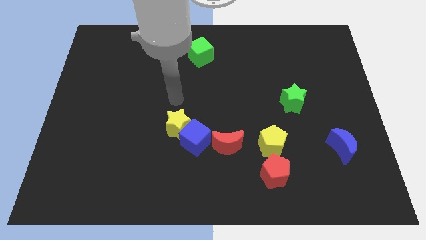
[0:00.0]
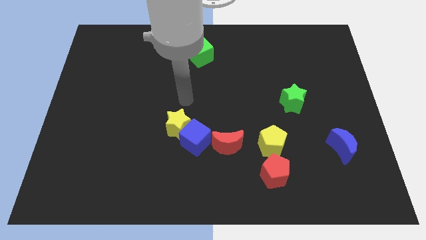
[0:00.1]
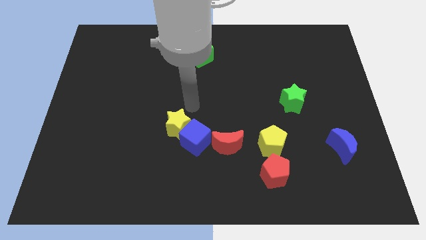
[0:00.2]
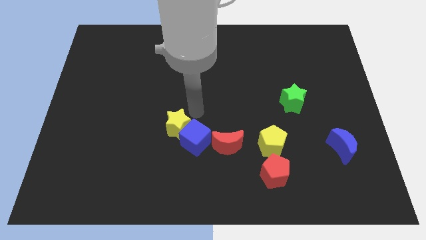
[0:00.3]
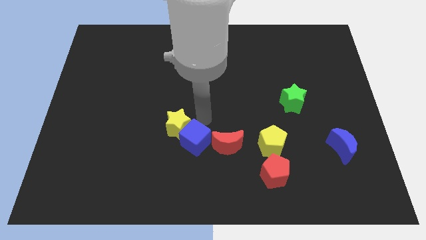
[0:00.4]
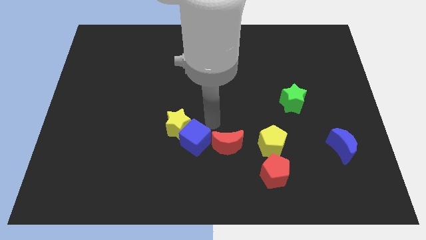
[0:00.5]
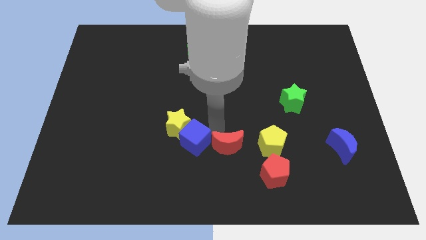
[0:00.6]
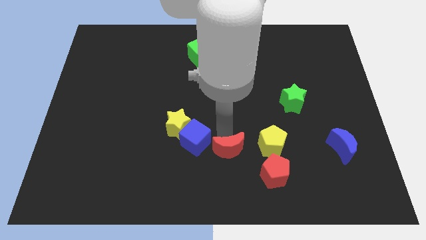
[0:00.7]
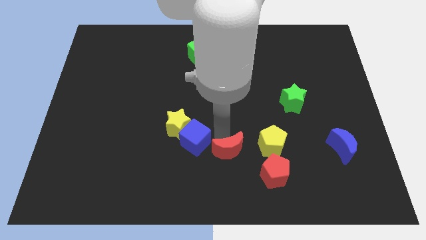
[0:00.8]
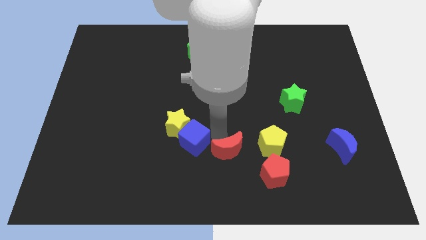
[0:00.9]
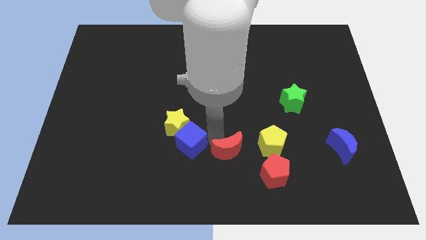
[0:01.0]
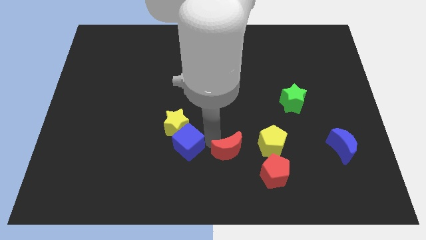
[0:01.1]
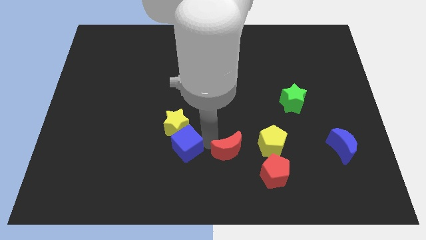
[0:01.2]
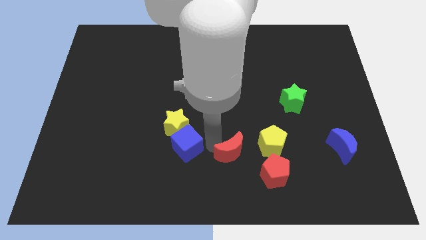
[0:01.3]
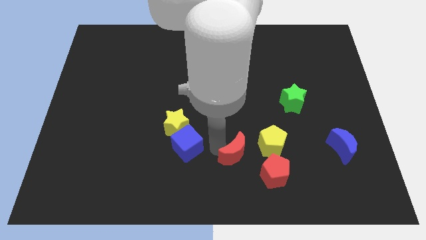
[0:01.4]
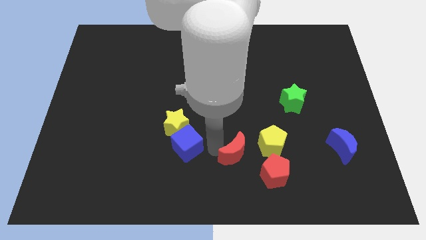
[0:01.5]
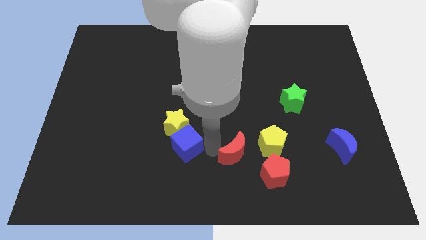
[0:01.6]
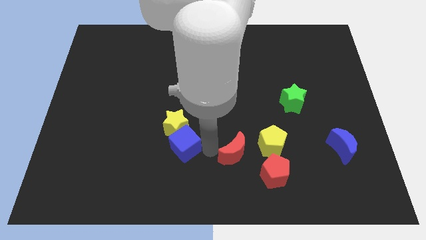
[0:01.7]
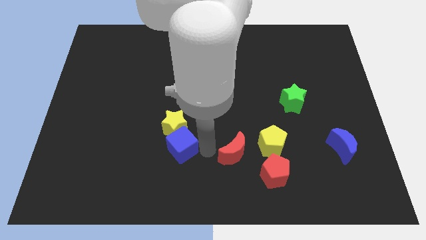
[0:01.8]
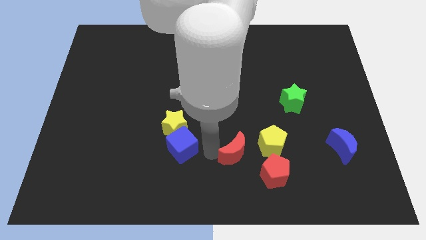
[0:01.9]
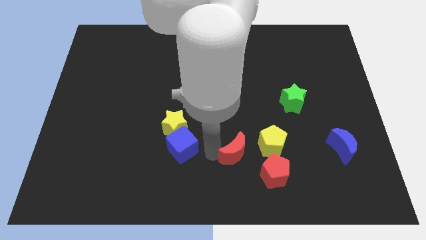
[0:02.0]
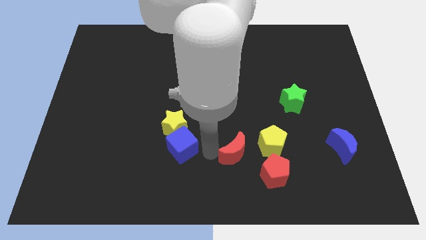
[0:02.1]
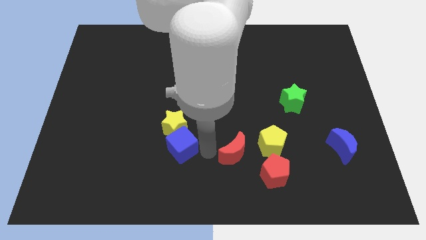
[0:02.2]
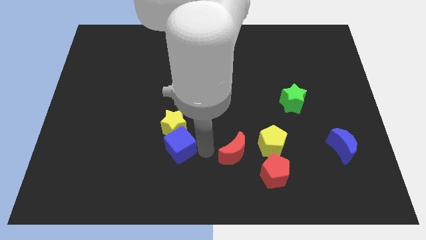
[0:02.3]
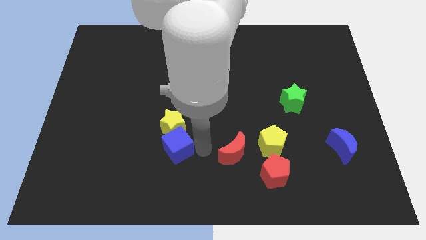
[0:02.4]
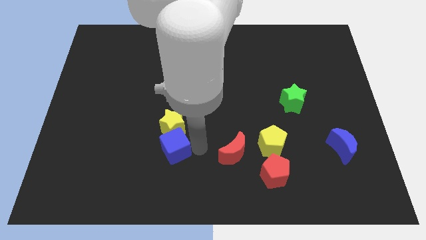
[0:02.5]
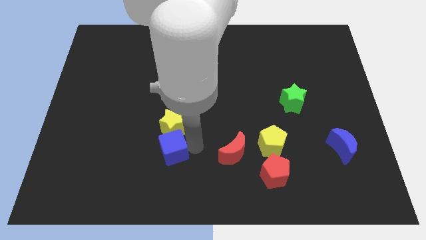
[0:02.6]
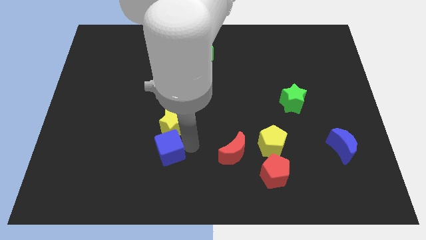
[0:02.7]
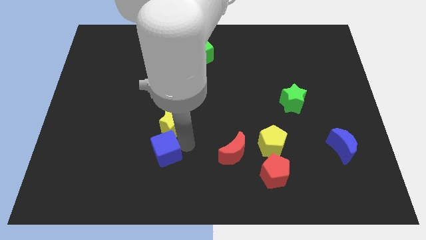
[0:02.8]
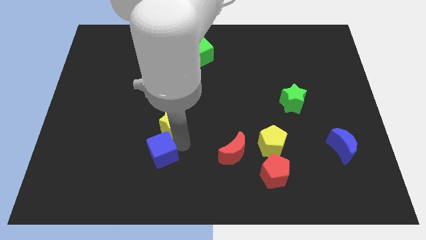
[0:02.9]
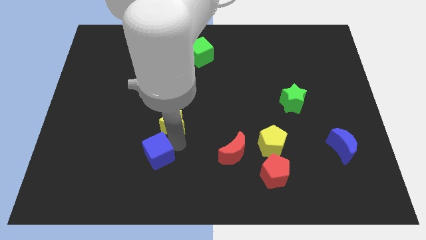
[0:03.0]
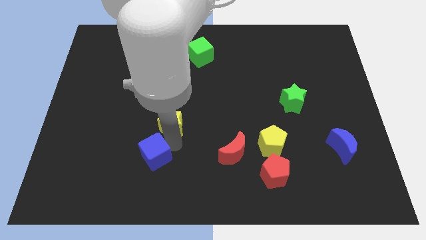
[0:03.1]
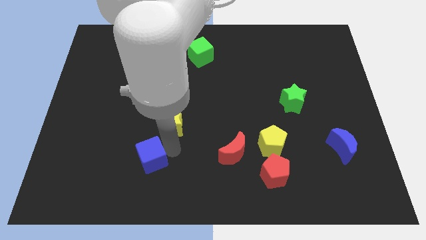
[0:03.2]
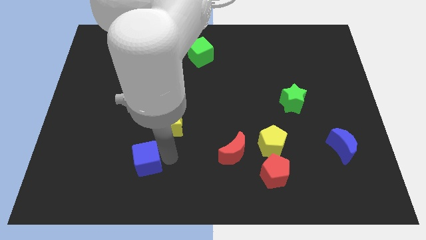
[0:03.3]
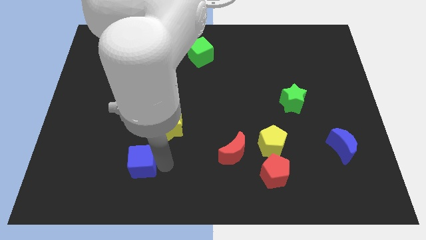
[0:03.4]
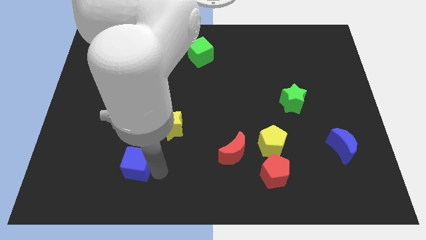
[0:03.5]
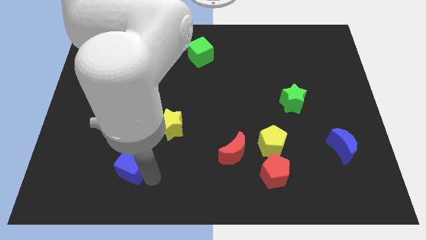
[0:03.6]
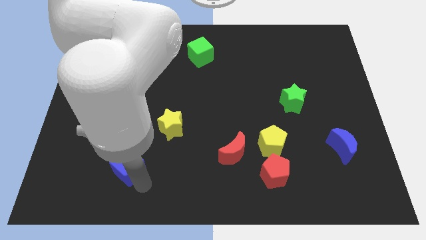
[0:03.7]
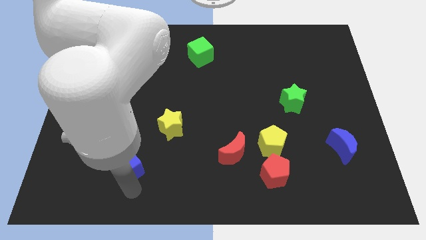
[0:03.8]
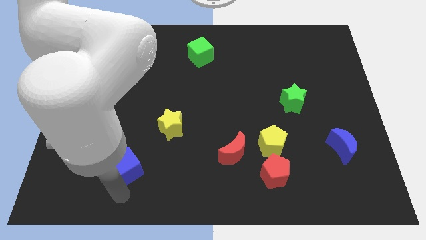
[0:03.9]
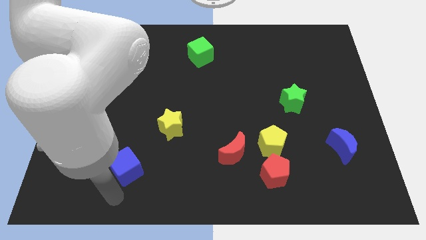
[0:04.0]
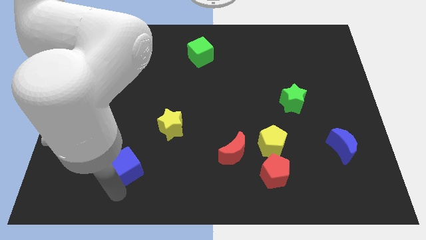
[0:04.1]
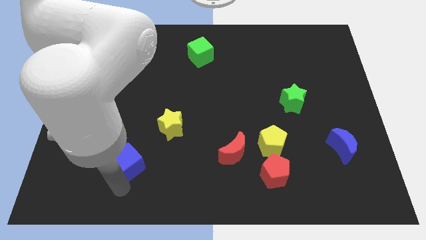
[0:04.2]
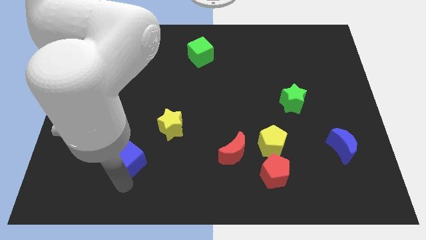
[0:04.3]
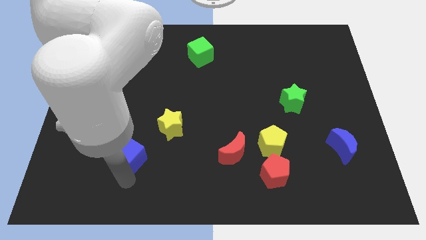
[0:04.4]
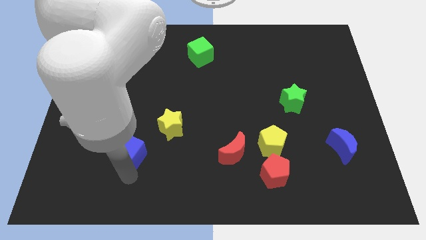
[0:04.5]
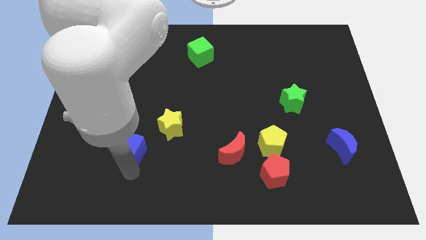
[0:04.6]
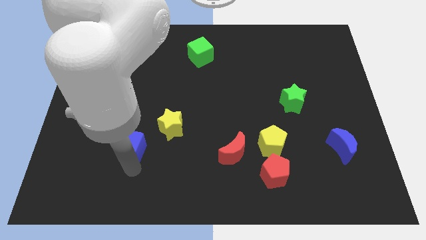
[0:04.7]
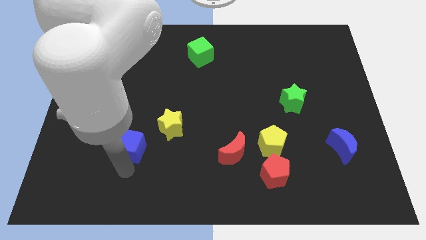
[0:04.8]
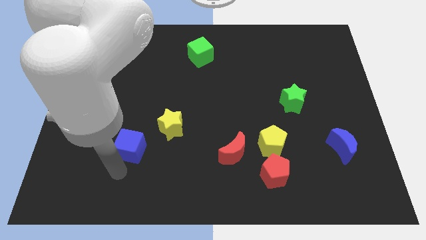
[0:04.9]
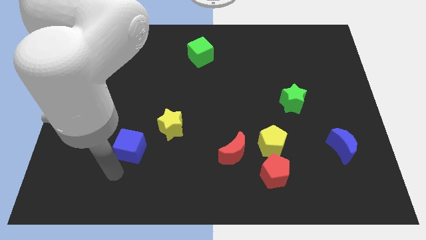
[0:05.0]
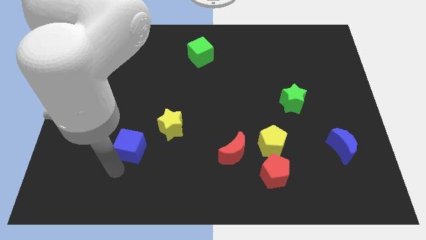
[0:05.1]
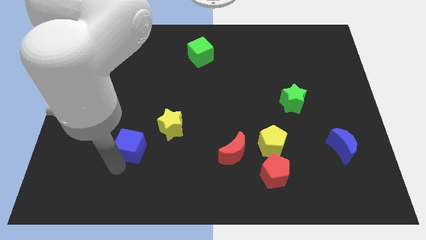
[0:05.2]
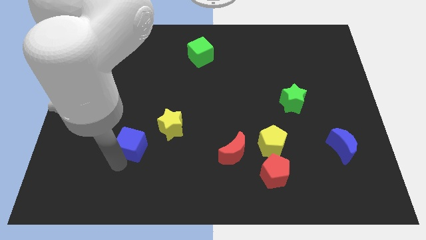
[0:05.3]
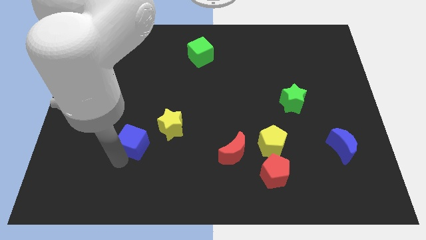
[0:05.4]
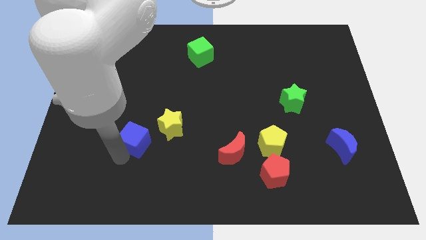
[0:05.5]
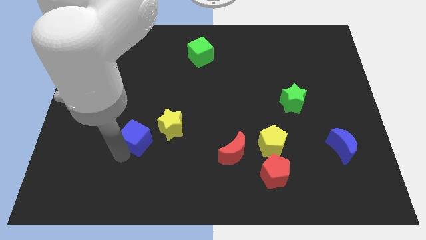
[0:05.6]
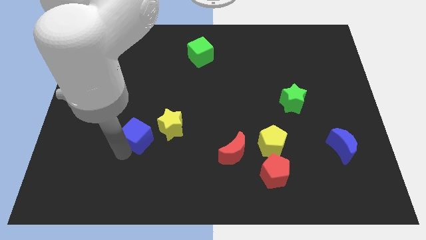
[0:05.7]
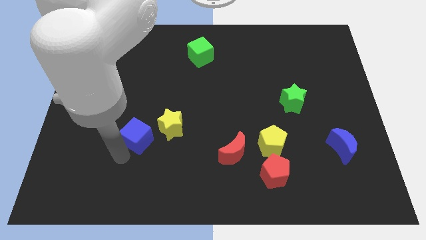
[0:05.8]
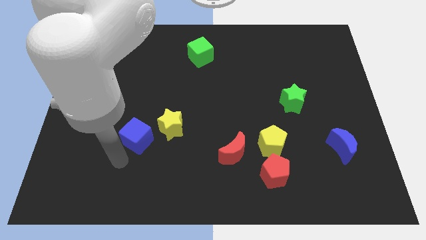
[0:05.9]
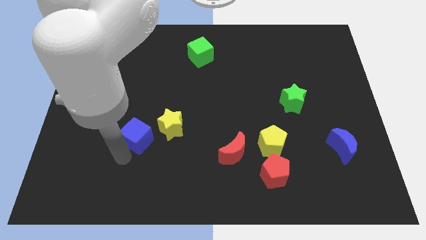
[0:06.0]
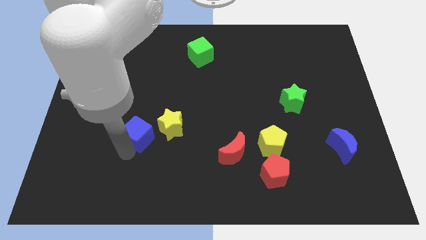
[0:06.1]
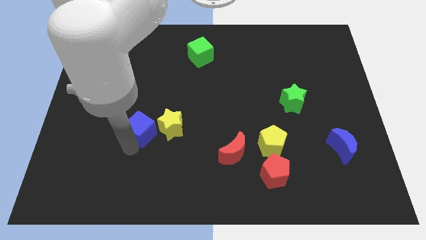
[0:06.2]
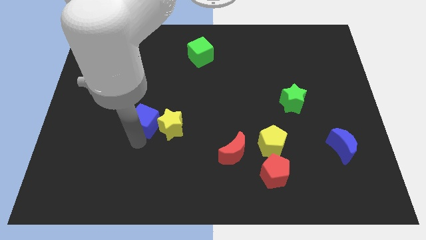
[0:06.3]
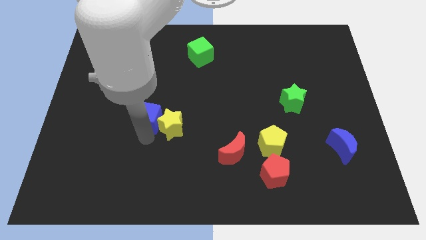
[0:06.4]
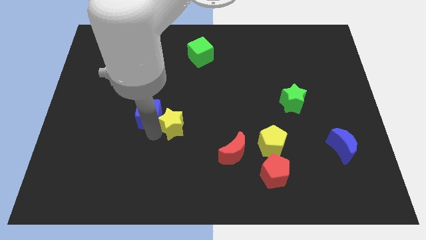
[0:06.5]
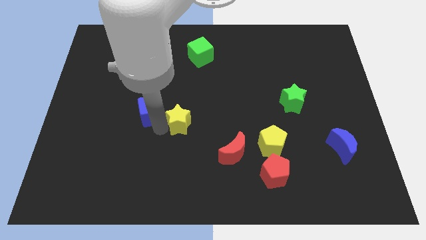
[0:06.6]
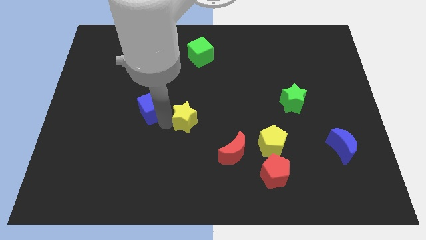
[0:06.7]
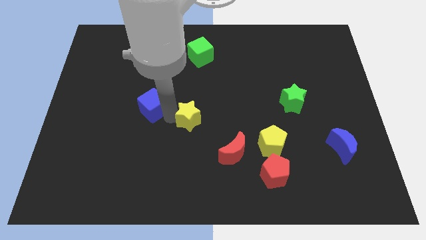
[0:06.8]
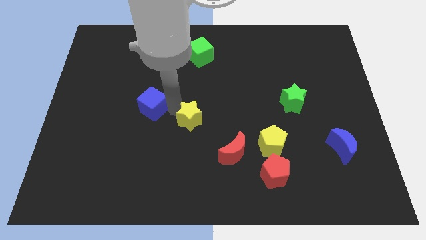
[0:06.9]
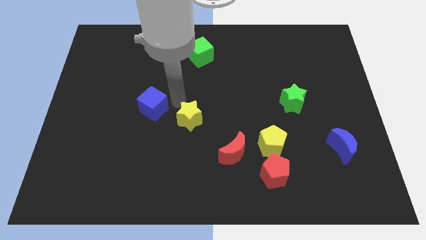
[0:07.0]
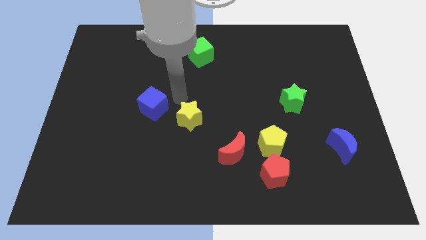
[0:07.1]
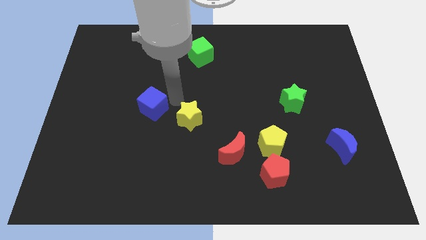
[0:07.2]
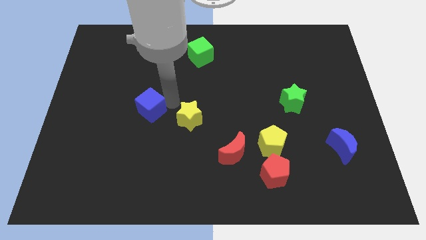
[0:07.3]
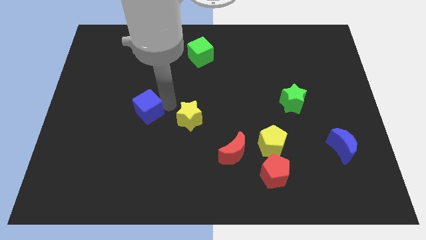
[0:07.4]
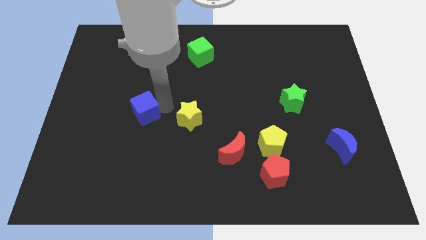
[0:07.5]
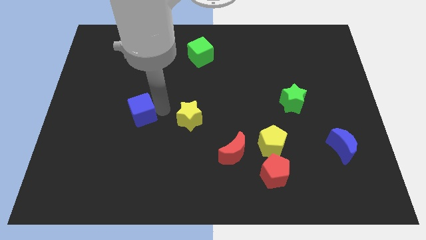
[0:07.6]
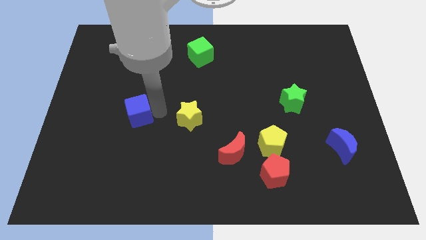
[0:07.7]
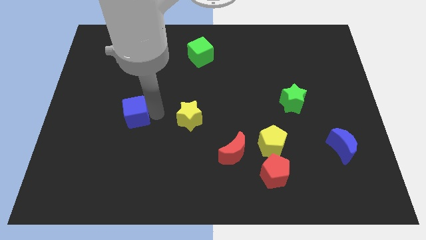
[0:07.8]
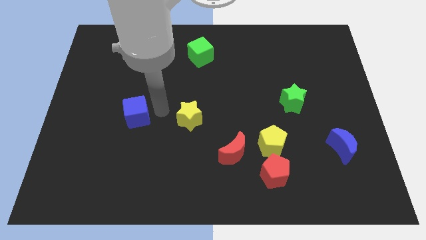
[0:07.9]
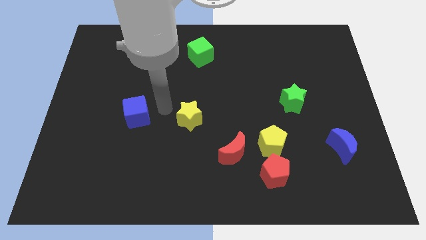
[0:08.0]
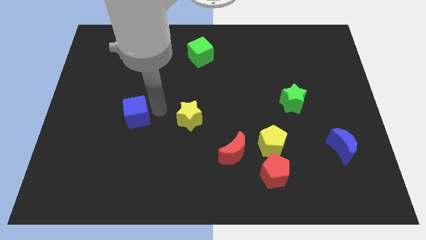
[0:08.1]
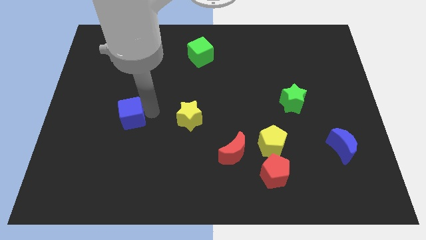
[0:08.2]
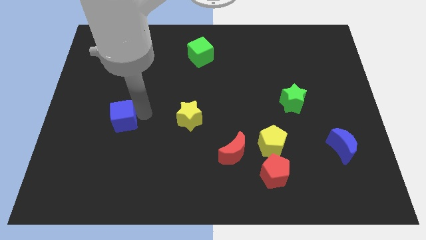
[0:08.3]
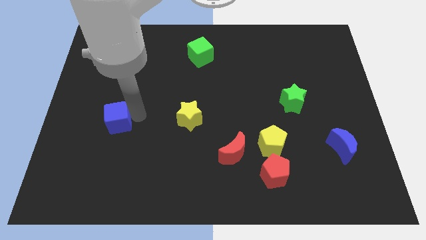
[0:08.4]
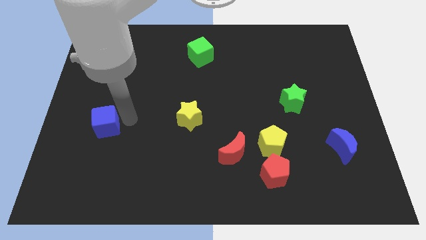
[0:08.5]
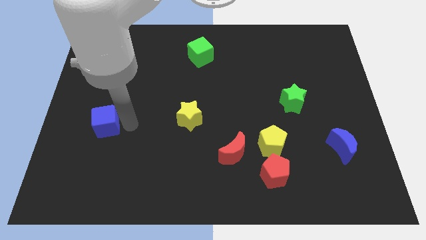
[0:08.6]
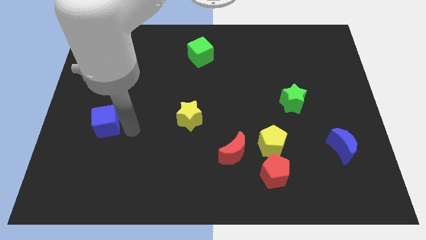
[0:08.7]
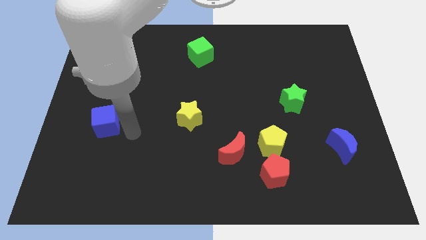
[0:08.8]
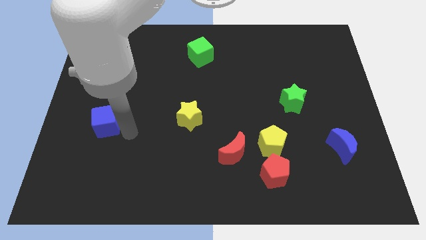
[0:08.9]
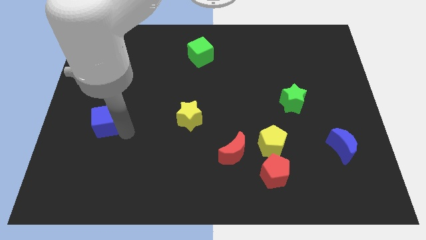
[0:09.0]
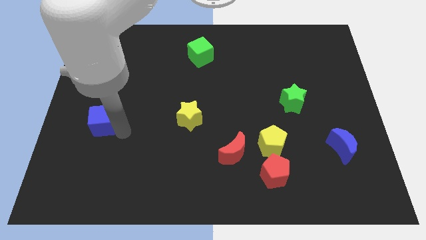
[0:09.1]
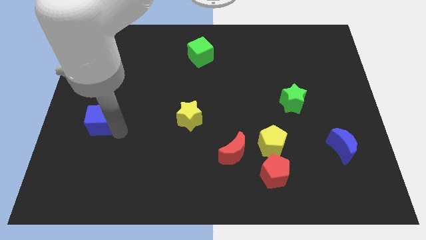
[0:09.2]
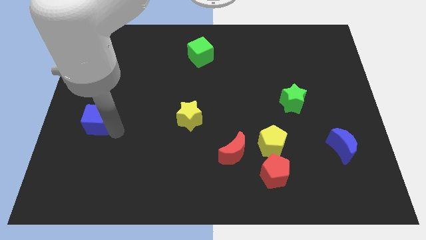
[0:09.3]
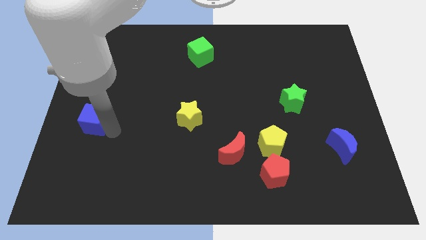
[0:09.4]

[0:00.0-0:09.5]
slide the blue cube to the center left
